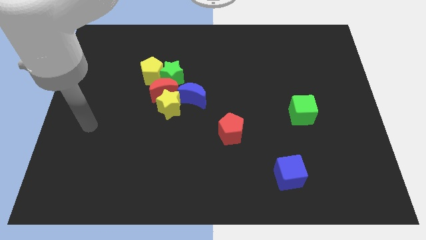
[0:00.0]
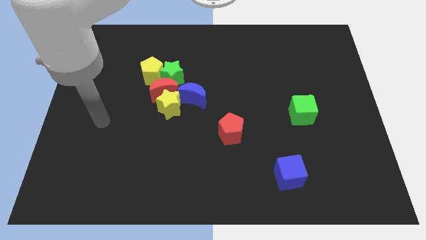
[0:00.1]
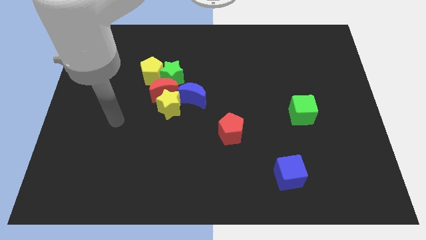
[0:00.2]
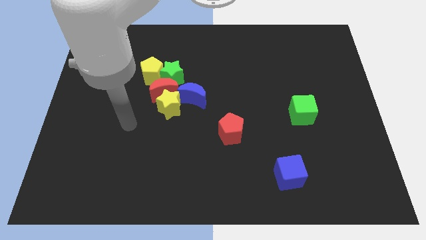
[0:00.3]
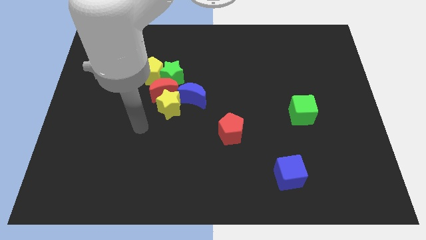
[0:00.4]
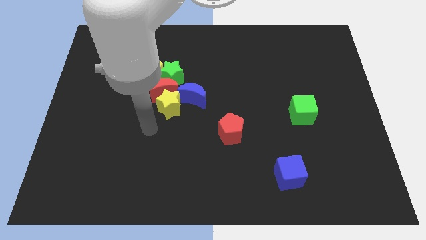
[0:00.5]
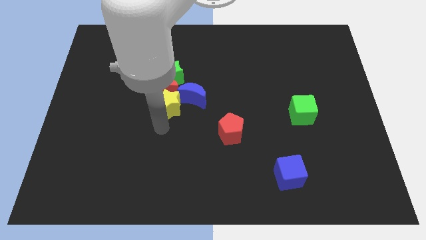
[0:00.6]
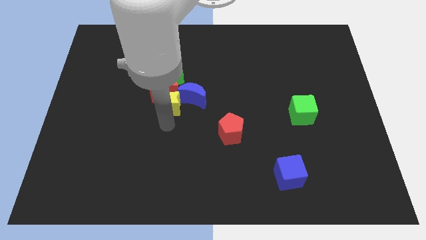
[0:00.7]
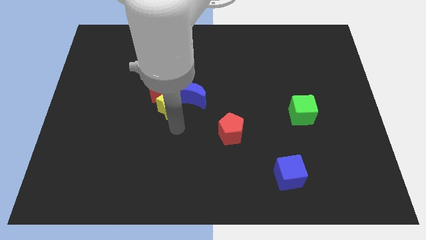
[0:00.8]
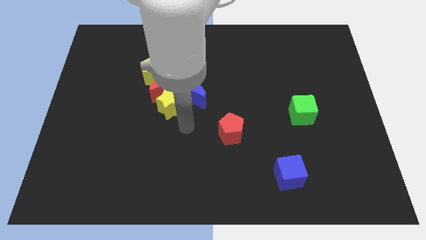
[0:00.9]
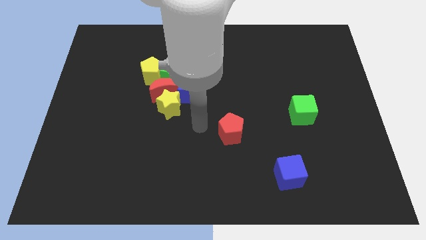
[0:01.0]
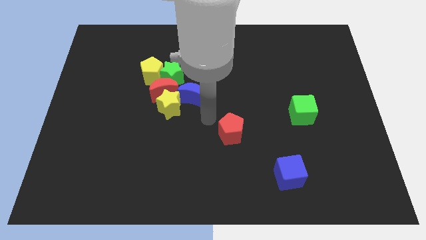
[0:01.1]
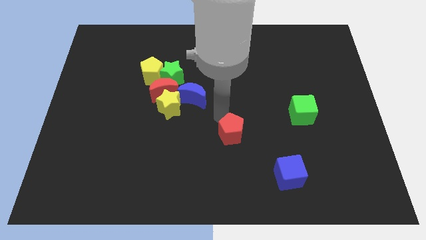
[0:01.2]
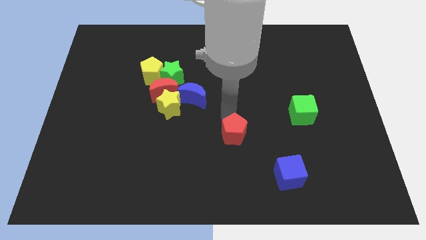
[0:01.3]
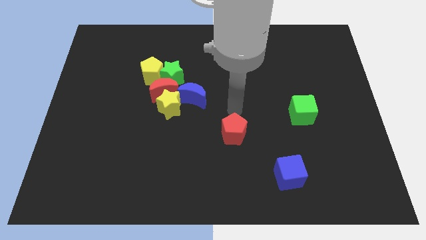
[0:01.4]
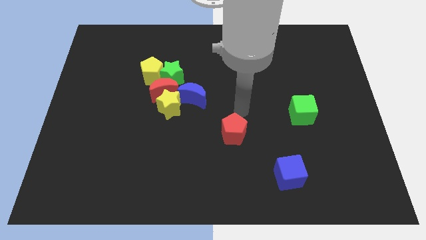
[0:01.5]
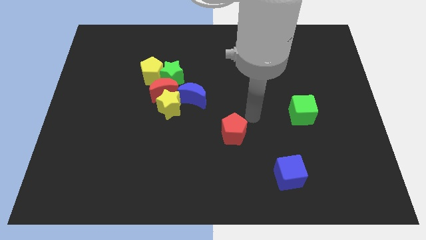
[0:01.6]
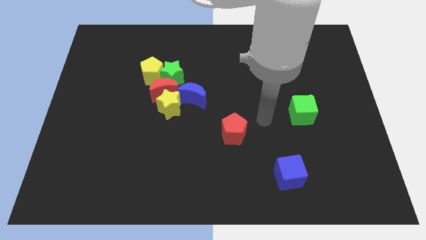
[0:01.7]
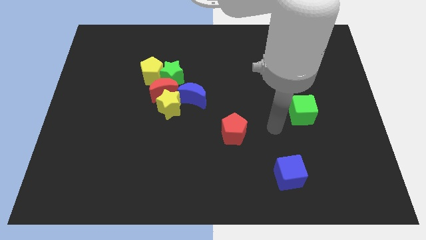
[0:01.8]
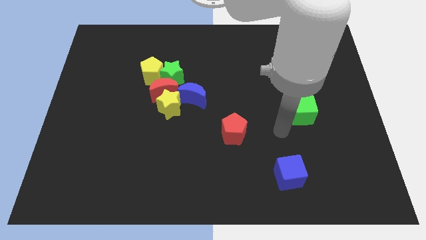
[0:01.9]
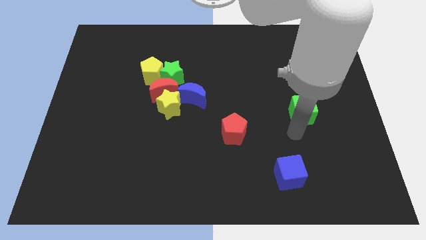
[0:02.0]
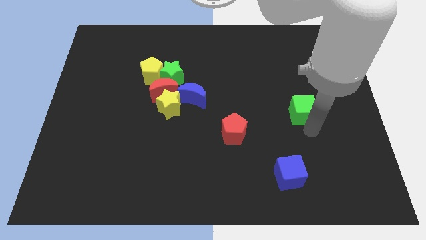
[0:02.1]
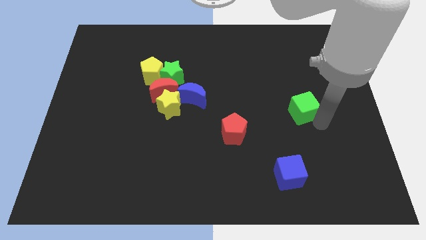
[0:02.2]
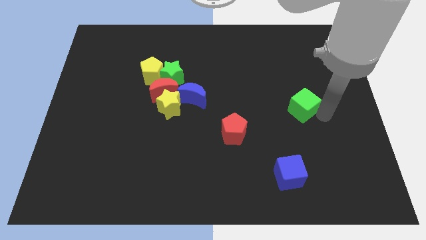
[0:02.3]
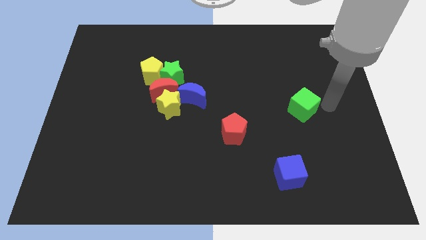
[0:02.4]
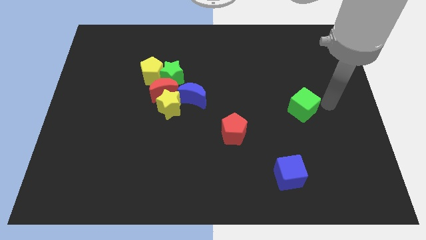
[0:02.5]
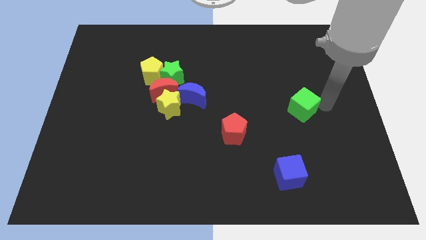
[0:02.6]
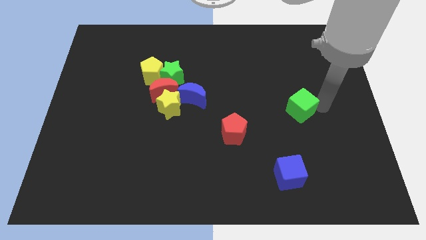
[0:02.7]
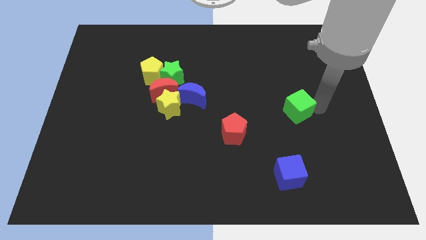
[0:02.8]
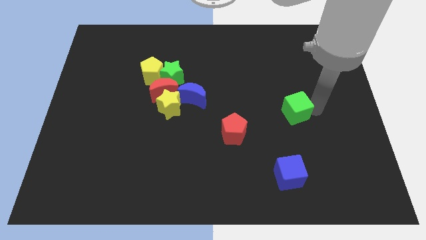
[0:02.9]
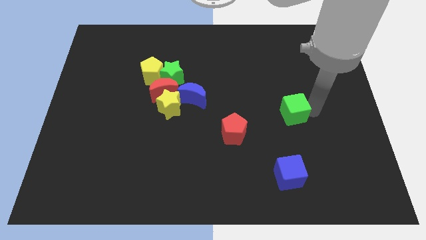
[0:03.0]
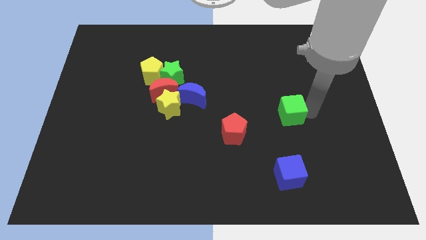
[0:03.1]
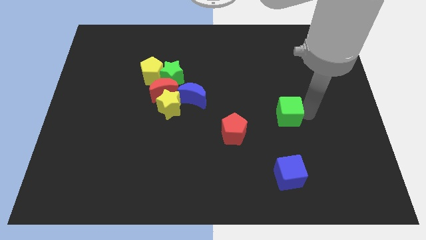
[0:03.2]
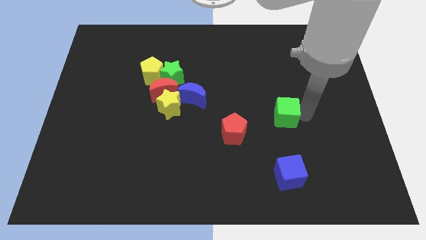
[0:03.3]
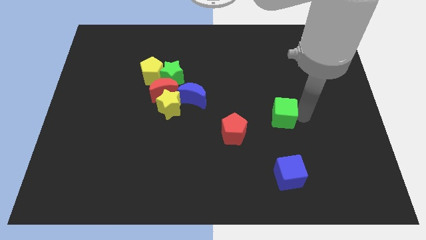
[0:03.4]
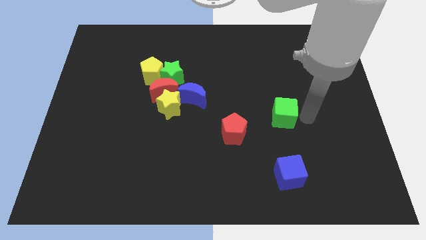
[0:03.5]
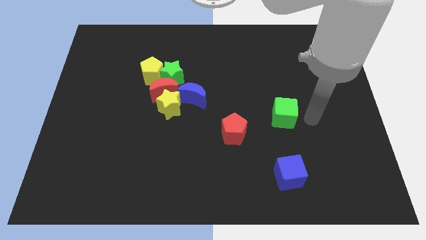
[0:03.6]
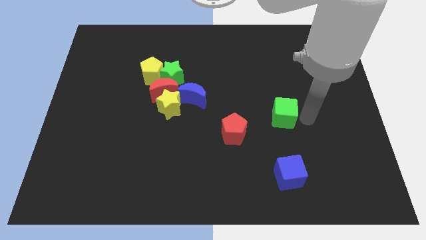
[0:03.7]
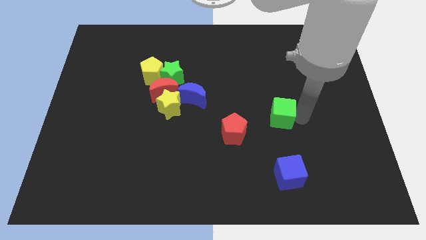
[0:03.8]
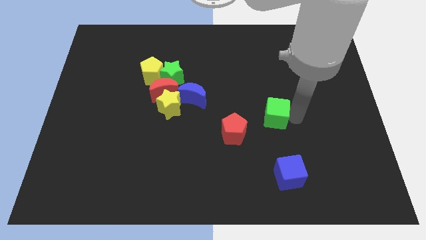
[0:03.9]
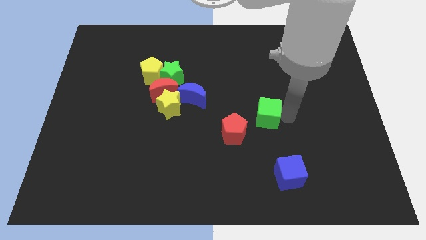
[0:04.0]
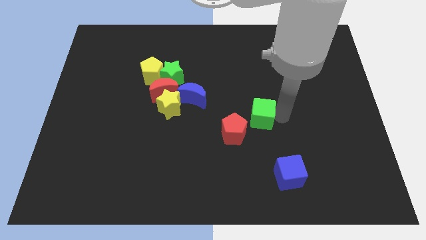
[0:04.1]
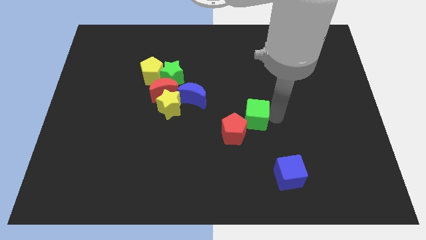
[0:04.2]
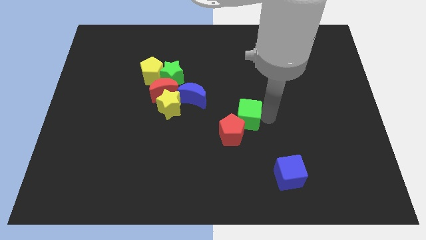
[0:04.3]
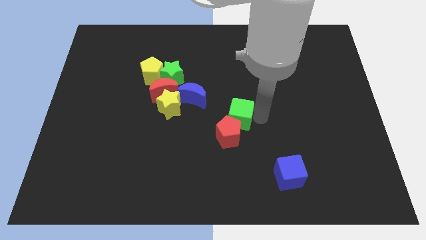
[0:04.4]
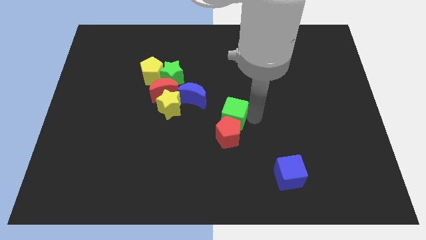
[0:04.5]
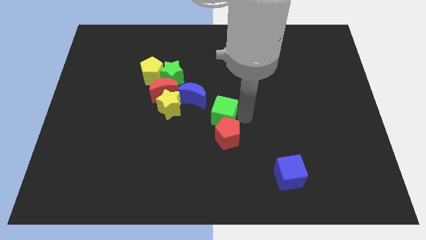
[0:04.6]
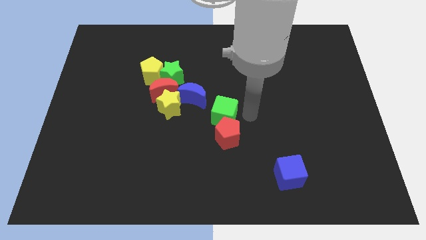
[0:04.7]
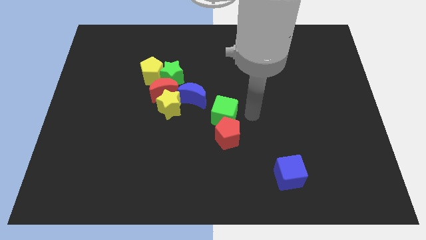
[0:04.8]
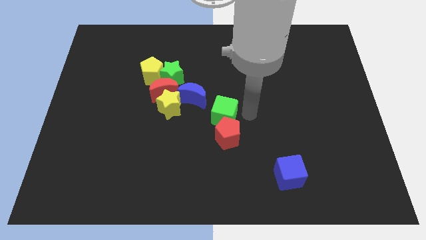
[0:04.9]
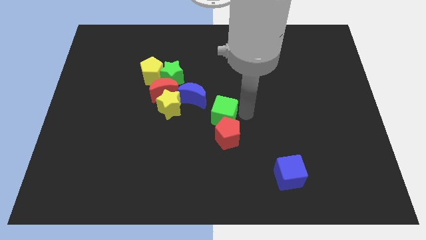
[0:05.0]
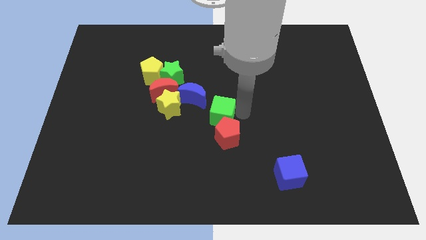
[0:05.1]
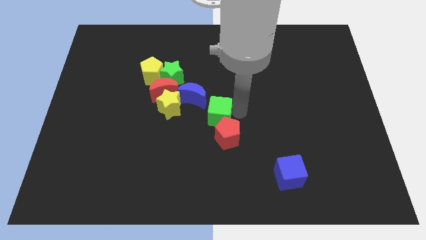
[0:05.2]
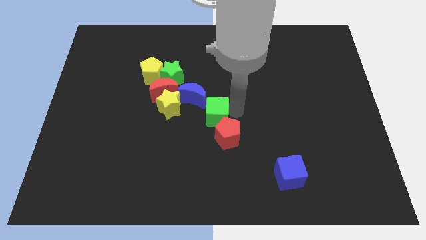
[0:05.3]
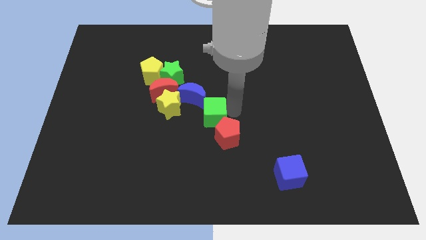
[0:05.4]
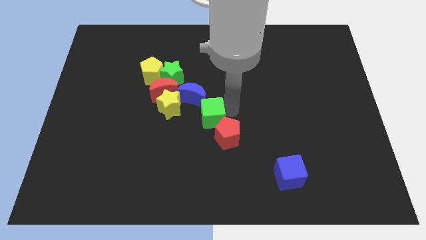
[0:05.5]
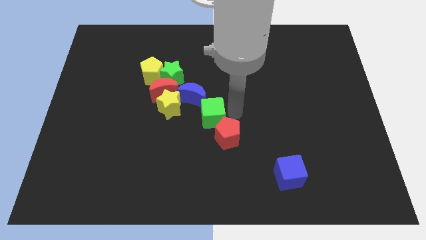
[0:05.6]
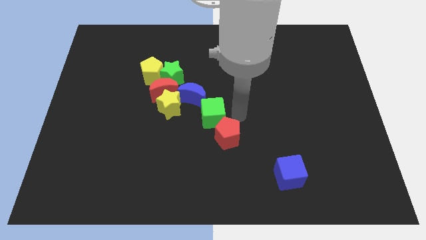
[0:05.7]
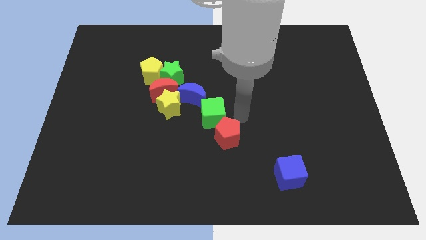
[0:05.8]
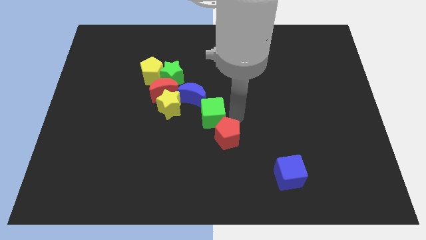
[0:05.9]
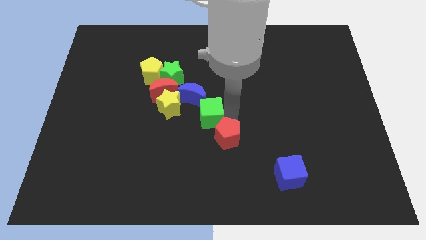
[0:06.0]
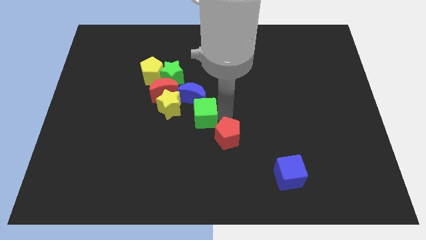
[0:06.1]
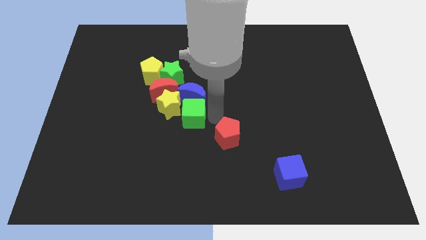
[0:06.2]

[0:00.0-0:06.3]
push the green cube next to the yellow star

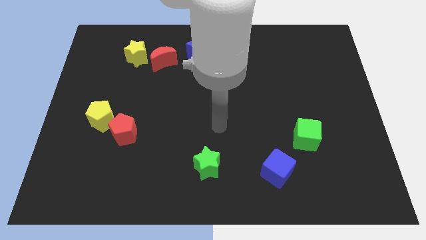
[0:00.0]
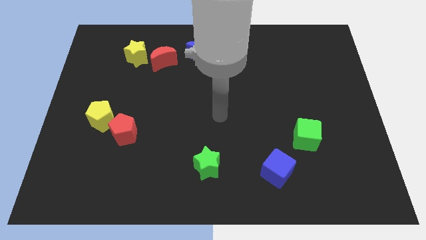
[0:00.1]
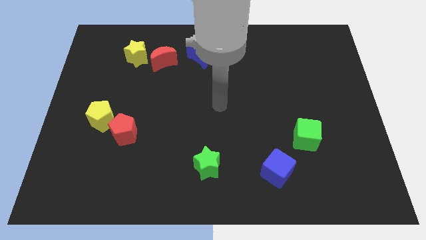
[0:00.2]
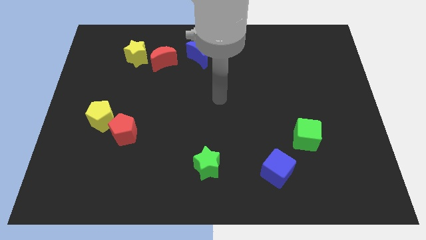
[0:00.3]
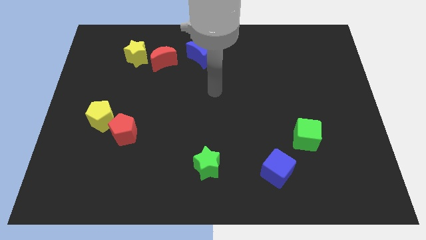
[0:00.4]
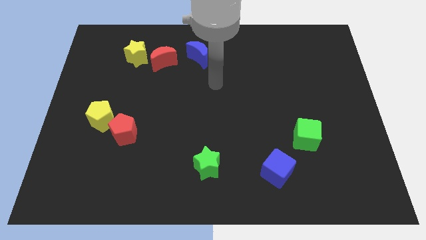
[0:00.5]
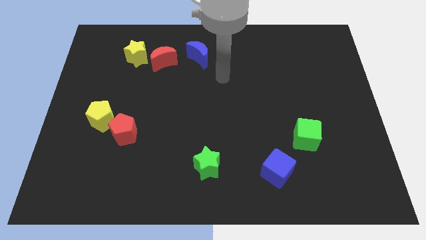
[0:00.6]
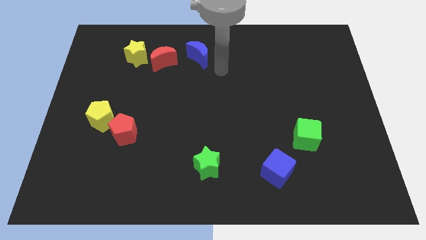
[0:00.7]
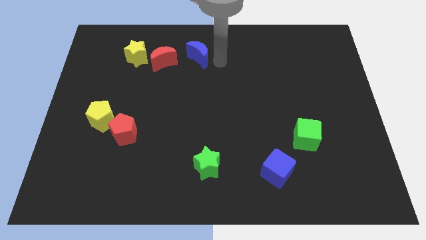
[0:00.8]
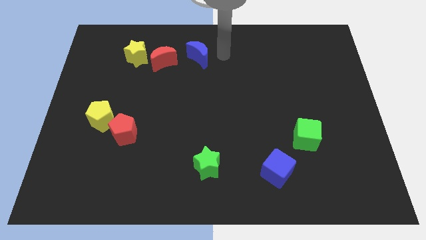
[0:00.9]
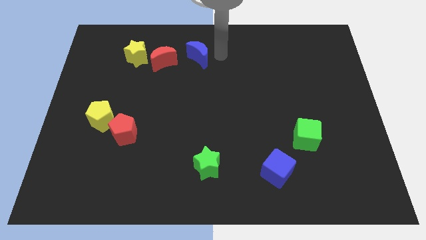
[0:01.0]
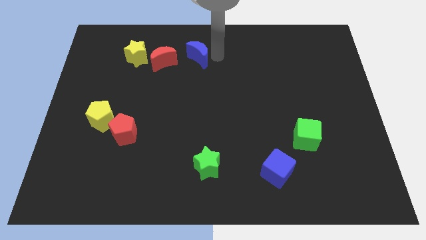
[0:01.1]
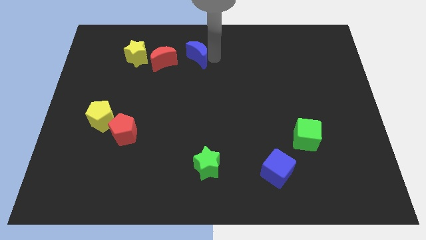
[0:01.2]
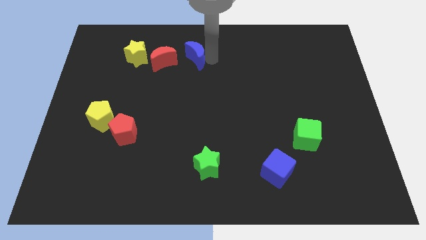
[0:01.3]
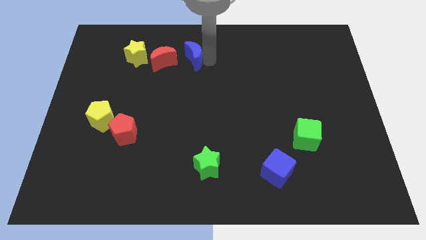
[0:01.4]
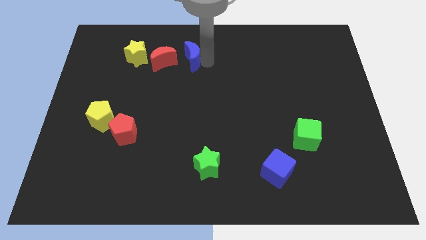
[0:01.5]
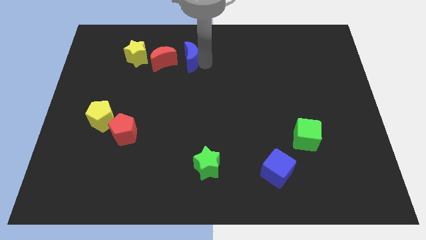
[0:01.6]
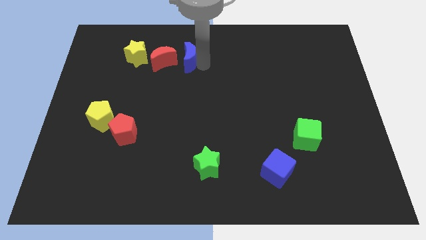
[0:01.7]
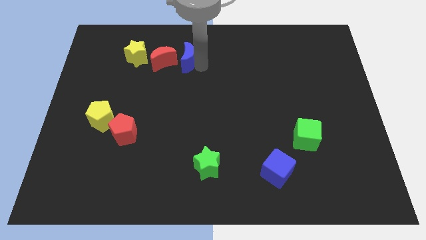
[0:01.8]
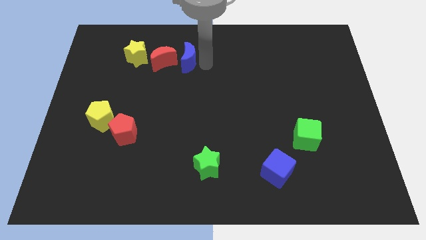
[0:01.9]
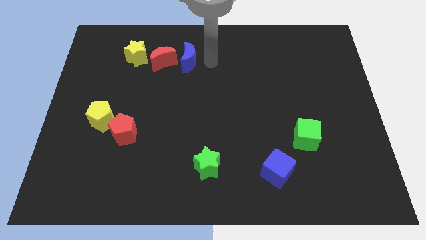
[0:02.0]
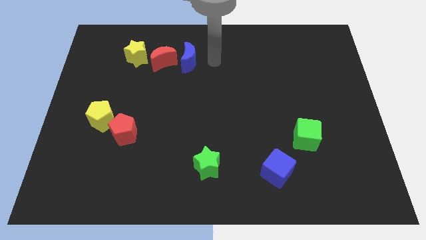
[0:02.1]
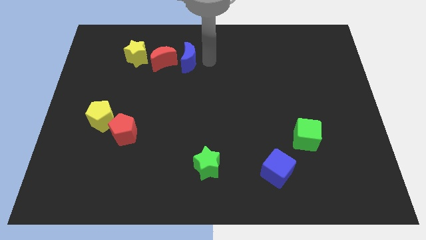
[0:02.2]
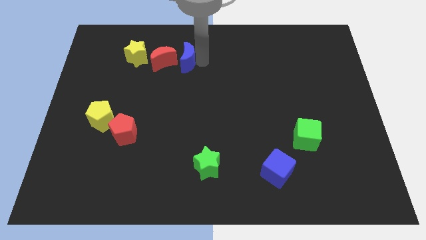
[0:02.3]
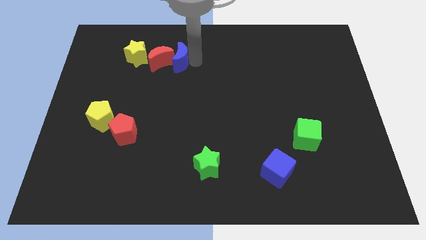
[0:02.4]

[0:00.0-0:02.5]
move the blue moon close to the red moon
